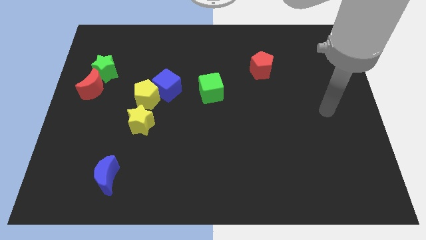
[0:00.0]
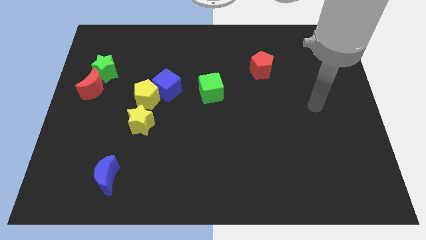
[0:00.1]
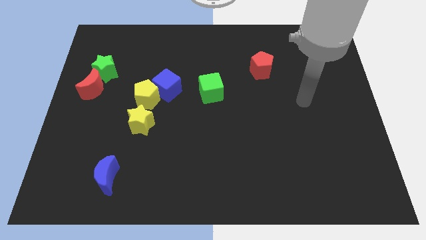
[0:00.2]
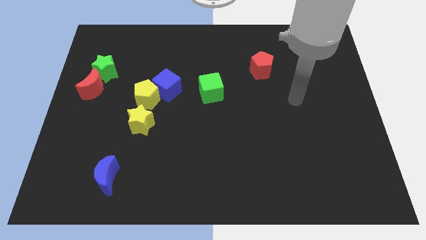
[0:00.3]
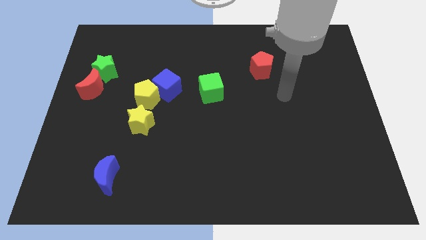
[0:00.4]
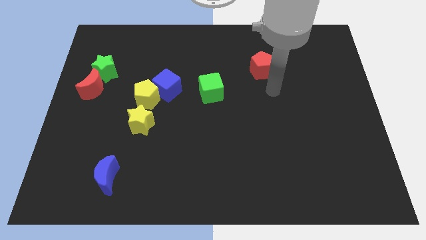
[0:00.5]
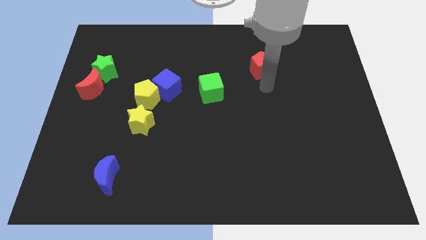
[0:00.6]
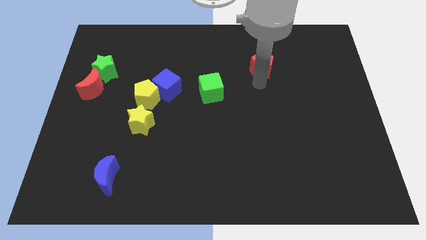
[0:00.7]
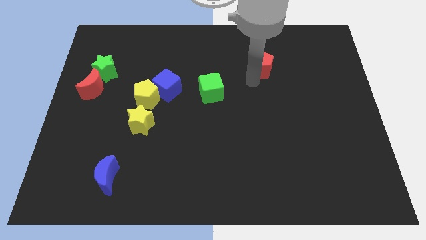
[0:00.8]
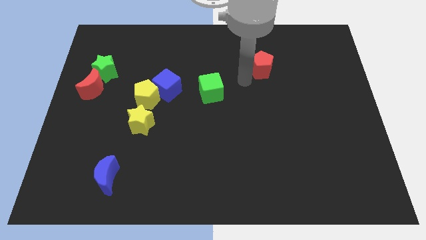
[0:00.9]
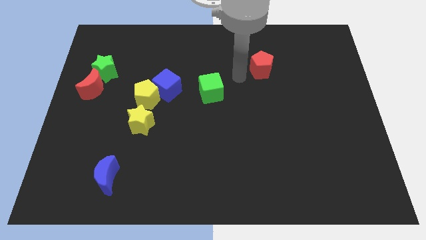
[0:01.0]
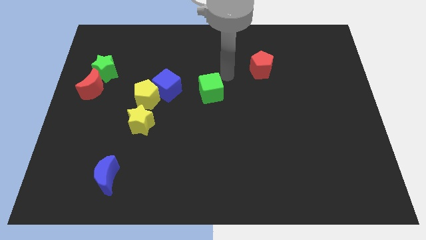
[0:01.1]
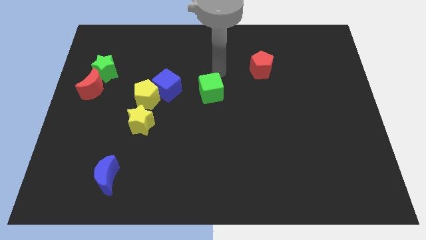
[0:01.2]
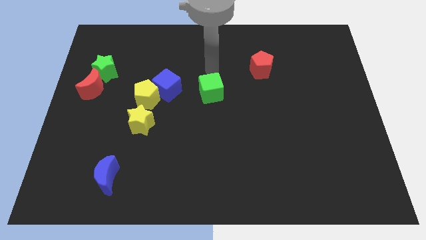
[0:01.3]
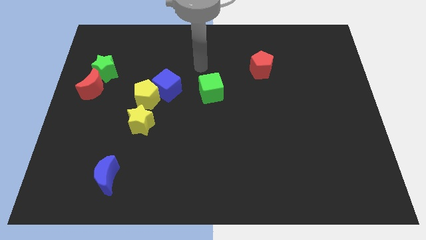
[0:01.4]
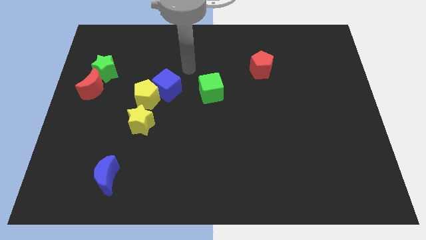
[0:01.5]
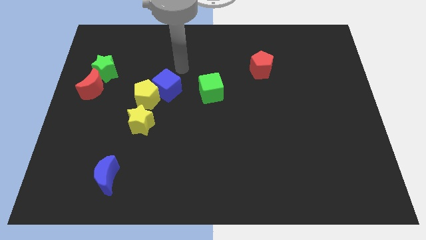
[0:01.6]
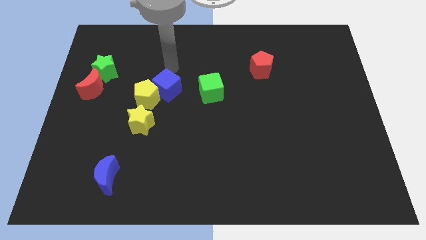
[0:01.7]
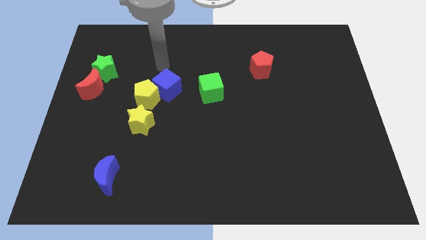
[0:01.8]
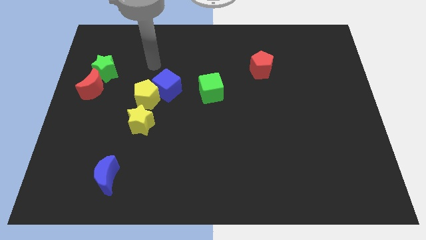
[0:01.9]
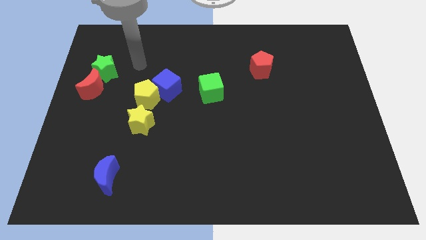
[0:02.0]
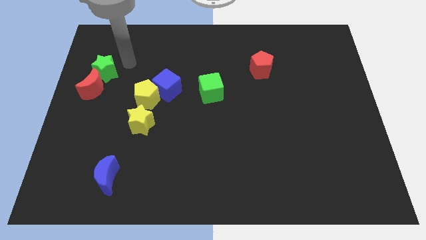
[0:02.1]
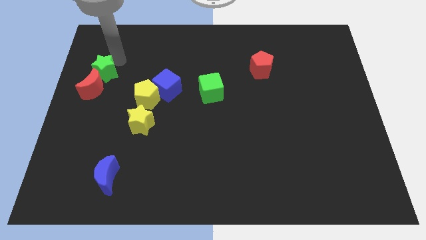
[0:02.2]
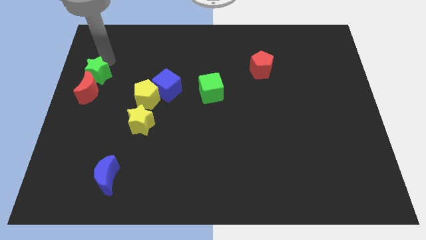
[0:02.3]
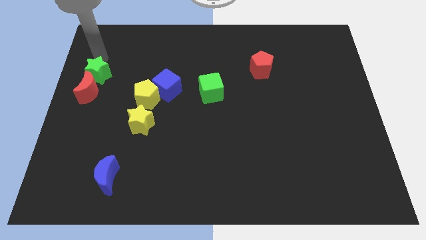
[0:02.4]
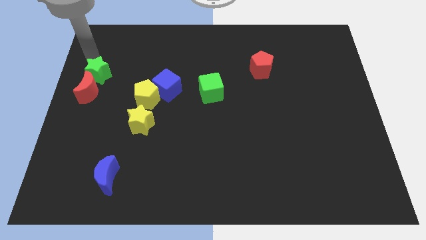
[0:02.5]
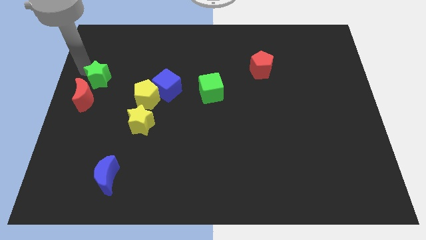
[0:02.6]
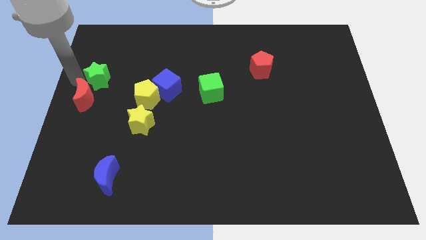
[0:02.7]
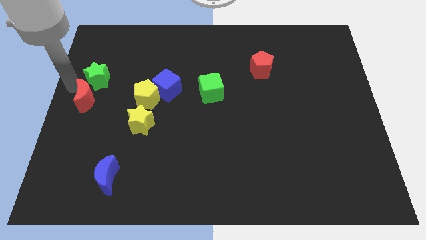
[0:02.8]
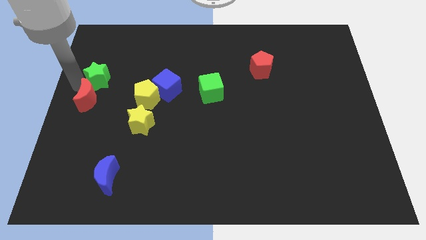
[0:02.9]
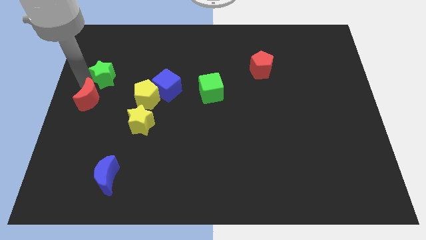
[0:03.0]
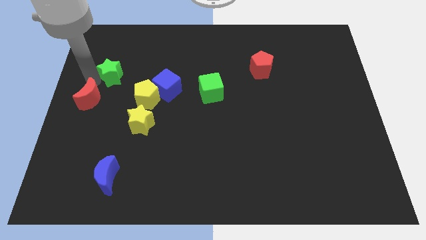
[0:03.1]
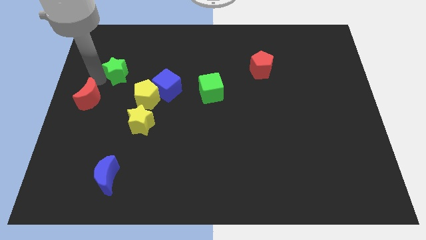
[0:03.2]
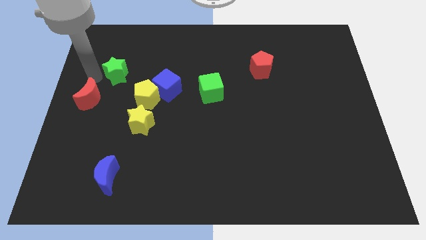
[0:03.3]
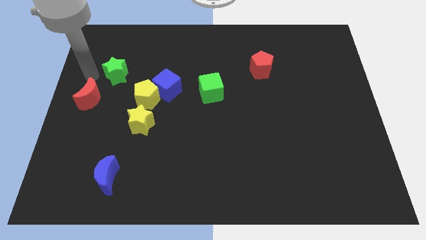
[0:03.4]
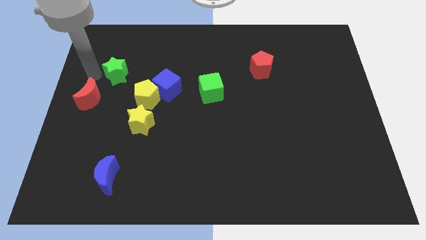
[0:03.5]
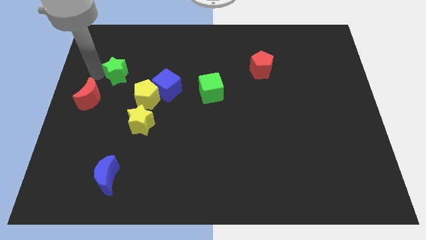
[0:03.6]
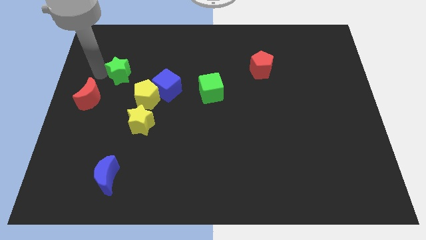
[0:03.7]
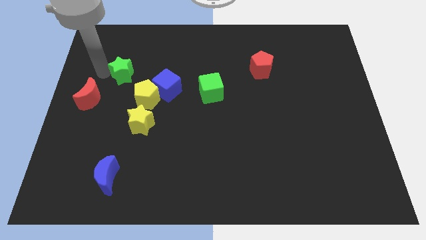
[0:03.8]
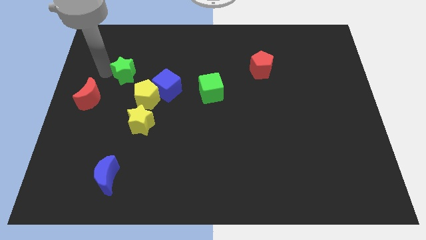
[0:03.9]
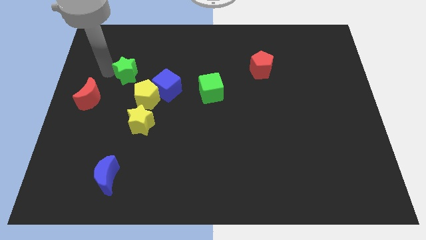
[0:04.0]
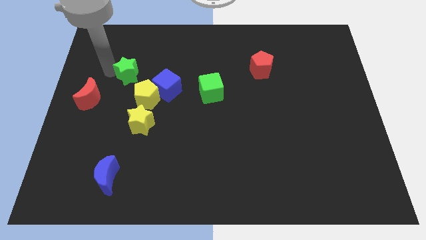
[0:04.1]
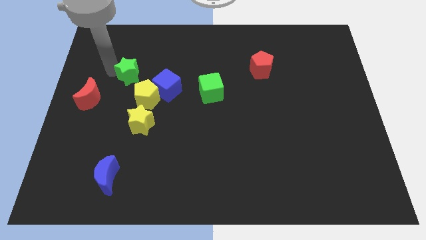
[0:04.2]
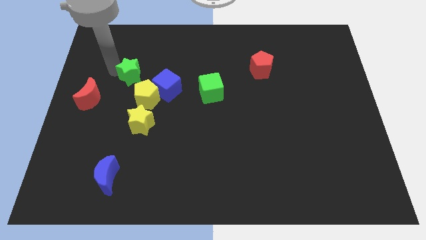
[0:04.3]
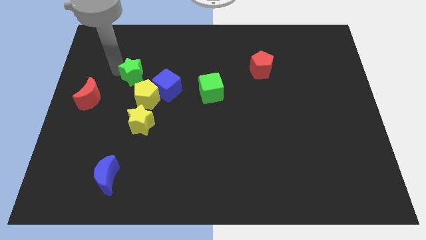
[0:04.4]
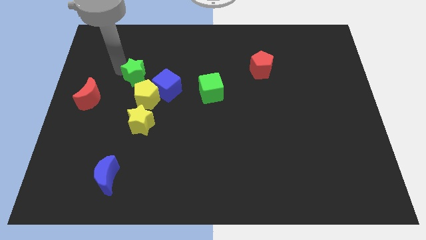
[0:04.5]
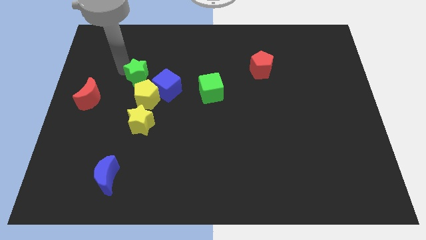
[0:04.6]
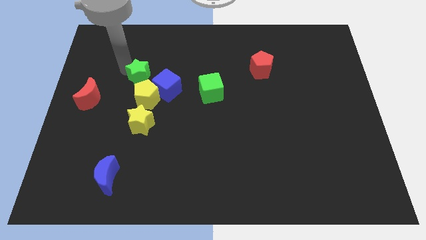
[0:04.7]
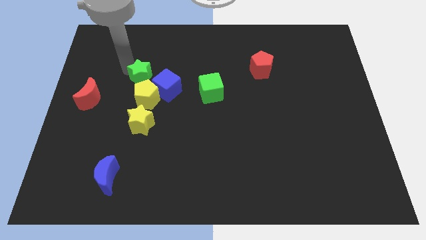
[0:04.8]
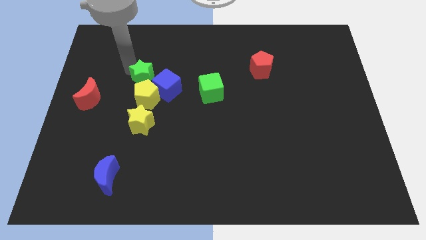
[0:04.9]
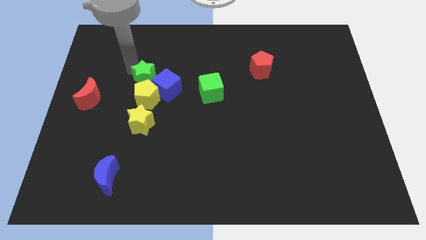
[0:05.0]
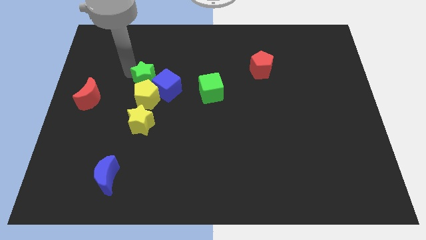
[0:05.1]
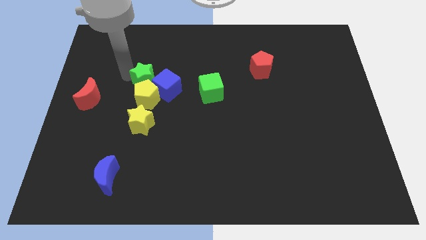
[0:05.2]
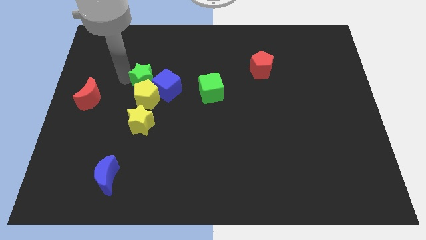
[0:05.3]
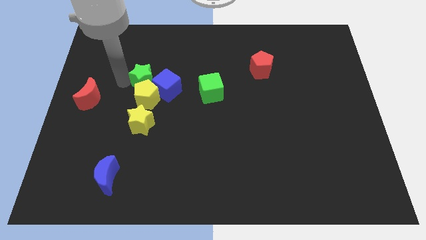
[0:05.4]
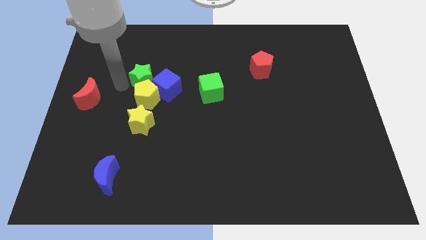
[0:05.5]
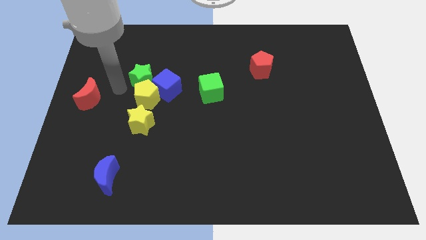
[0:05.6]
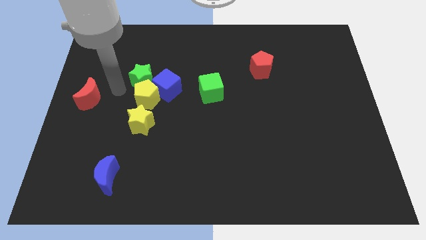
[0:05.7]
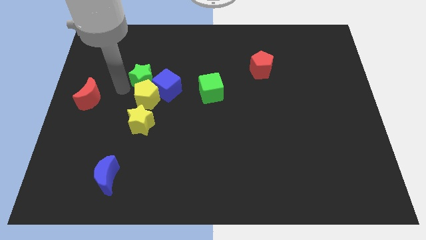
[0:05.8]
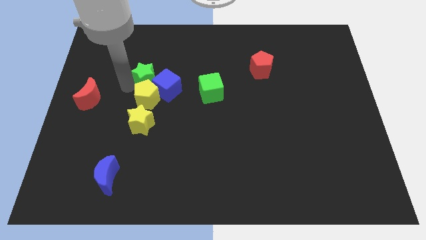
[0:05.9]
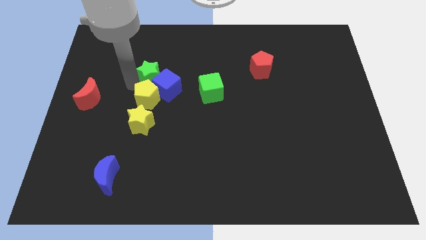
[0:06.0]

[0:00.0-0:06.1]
slide the green star next to the blue cube
